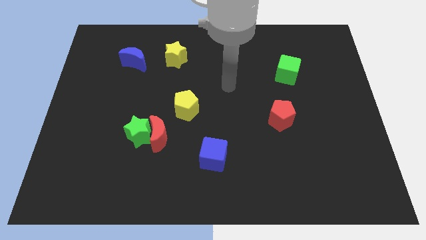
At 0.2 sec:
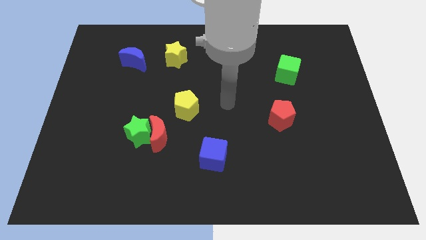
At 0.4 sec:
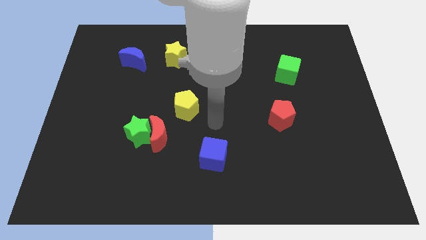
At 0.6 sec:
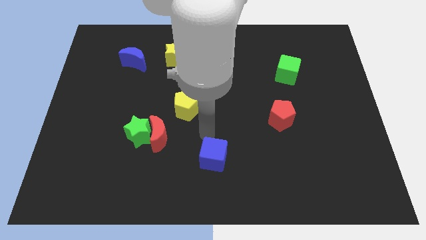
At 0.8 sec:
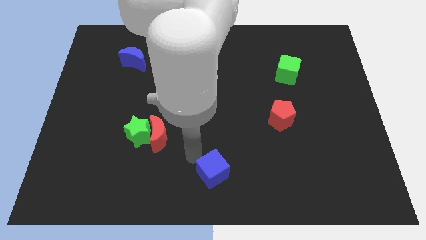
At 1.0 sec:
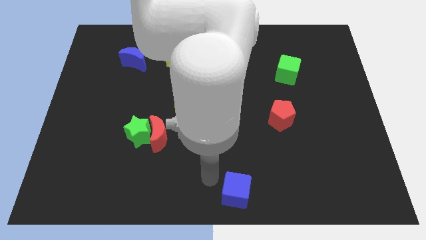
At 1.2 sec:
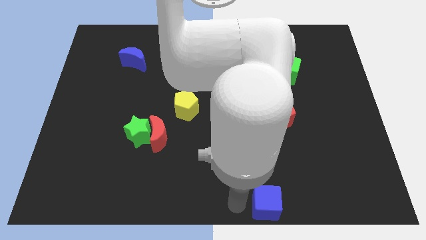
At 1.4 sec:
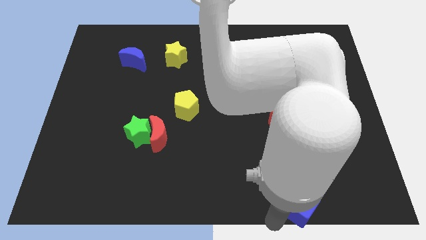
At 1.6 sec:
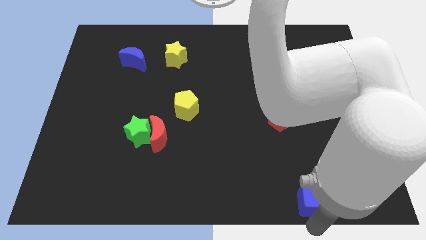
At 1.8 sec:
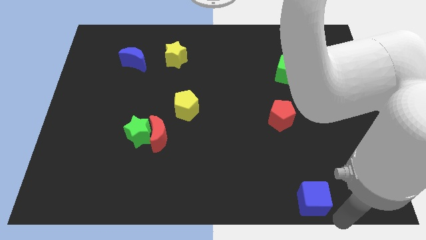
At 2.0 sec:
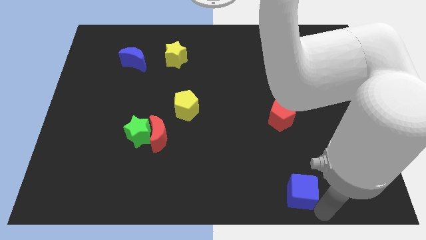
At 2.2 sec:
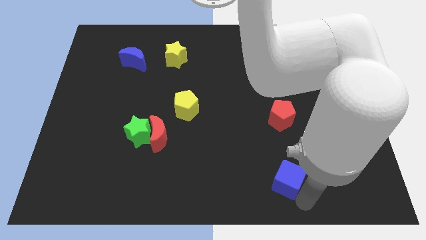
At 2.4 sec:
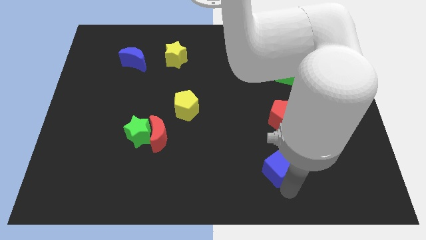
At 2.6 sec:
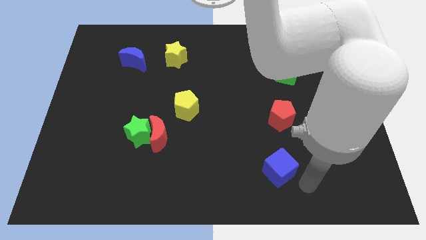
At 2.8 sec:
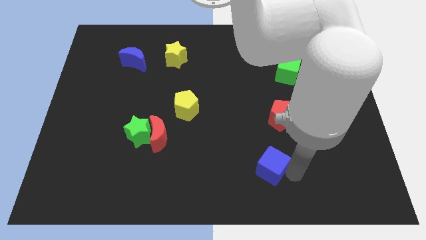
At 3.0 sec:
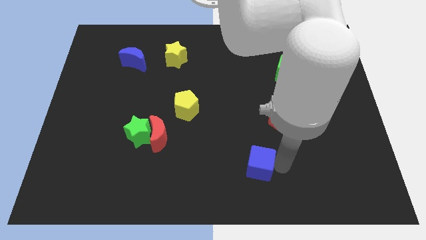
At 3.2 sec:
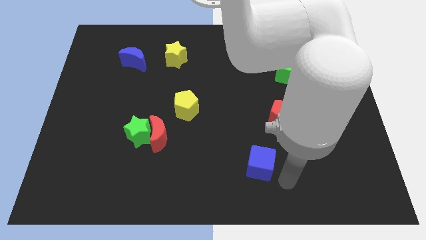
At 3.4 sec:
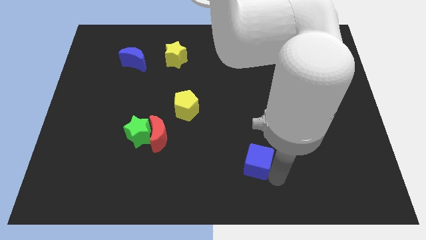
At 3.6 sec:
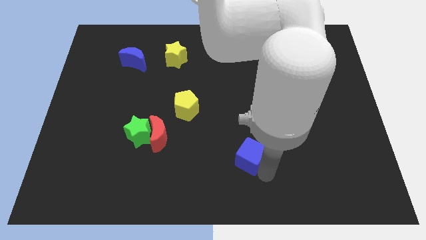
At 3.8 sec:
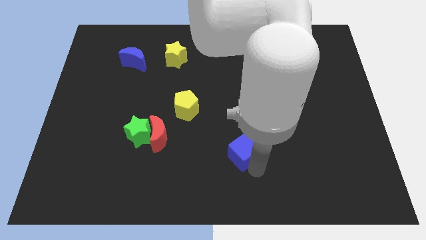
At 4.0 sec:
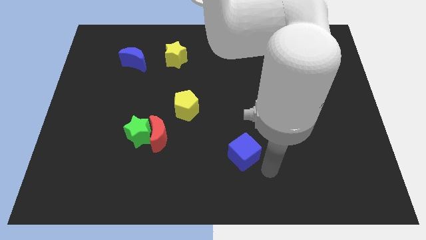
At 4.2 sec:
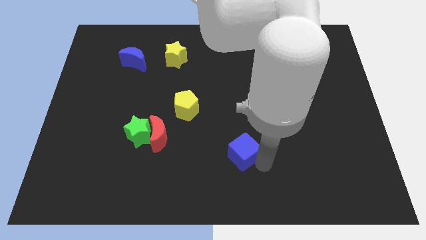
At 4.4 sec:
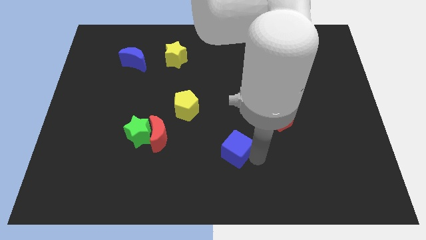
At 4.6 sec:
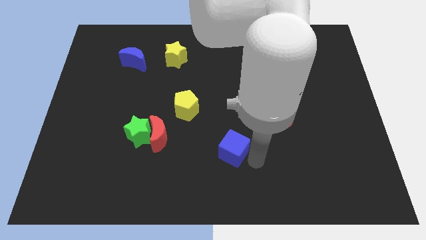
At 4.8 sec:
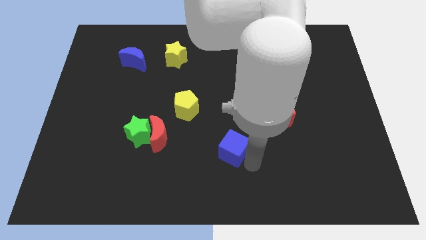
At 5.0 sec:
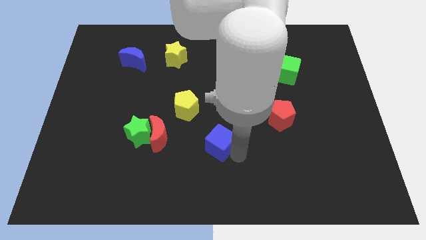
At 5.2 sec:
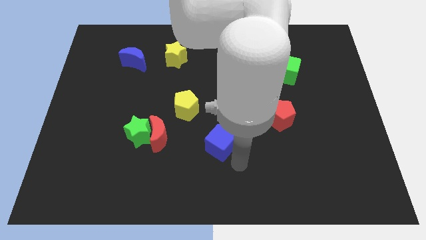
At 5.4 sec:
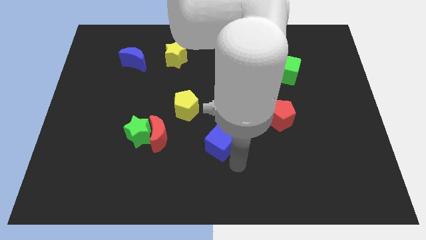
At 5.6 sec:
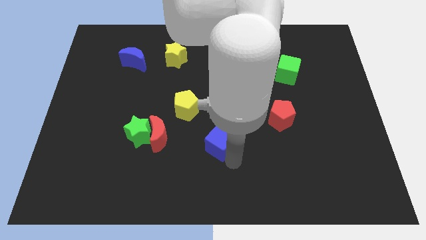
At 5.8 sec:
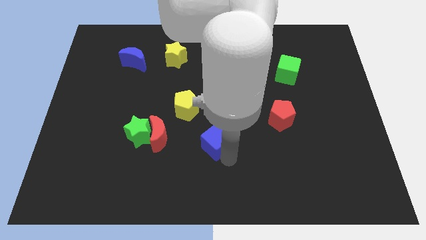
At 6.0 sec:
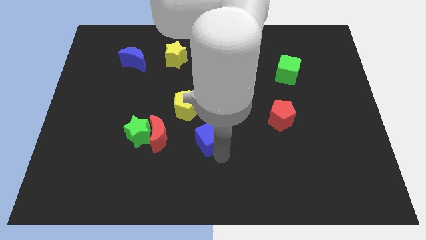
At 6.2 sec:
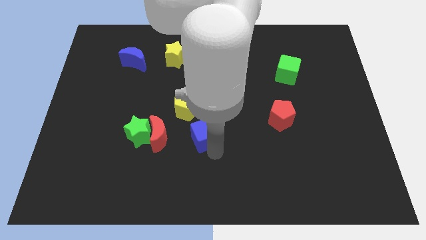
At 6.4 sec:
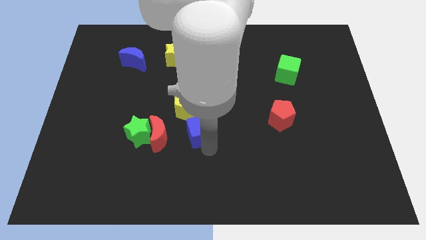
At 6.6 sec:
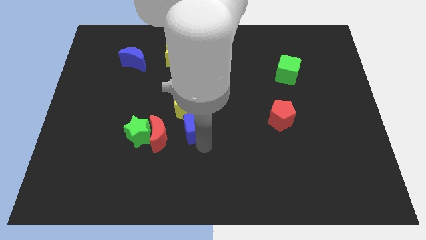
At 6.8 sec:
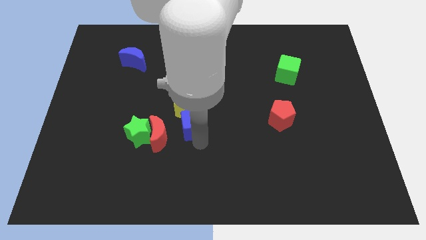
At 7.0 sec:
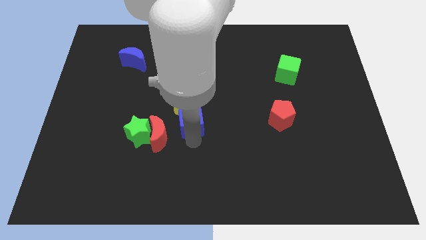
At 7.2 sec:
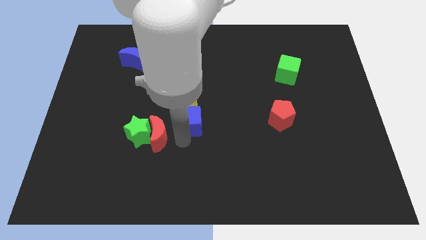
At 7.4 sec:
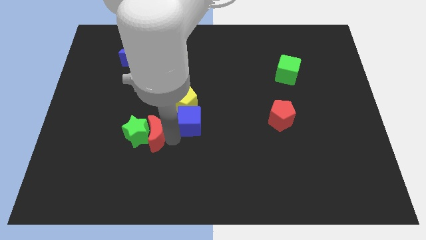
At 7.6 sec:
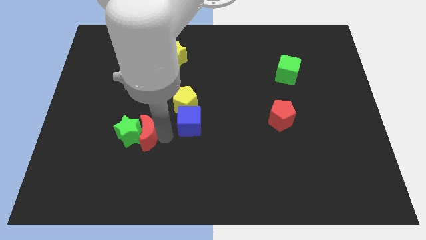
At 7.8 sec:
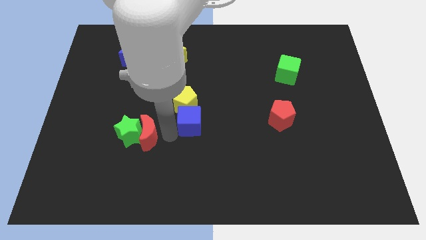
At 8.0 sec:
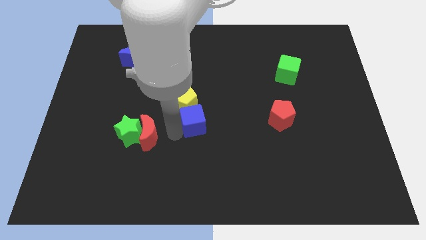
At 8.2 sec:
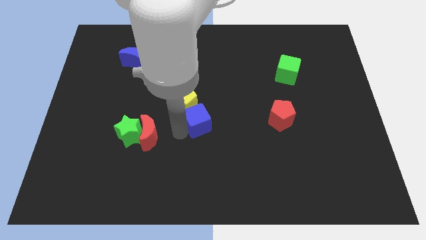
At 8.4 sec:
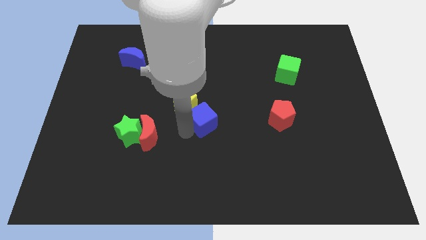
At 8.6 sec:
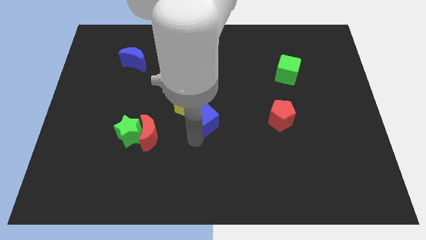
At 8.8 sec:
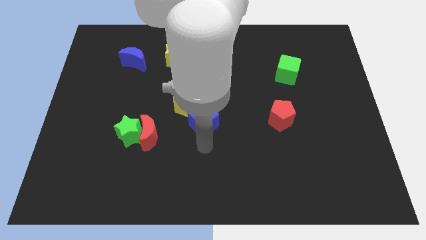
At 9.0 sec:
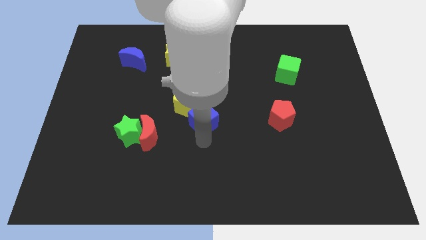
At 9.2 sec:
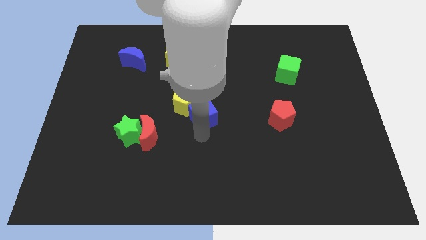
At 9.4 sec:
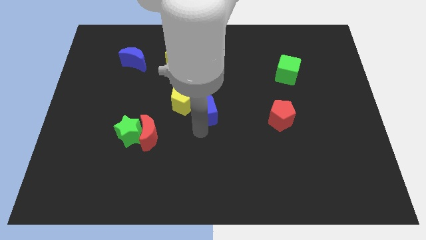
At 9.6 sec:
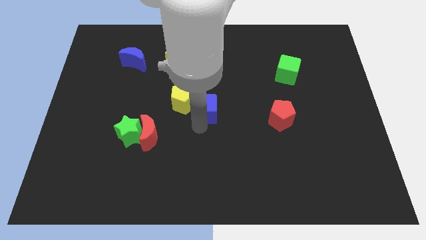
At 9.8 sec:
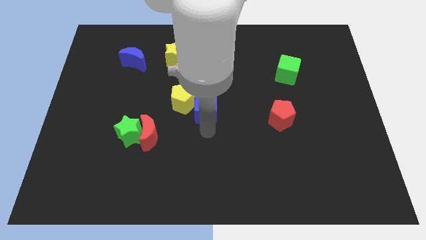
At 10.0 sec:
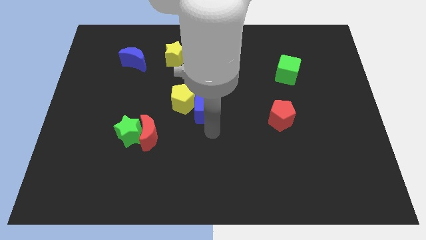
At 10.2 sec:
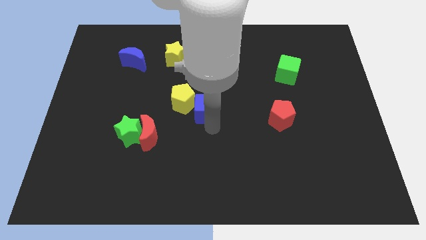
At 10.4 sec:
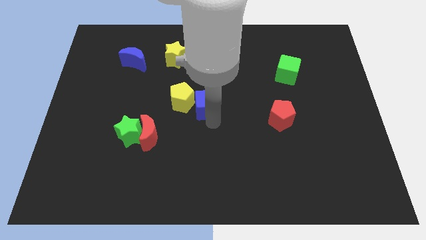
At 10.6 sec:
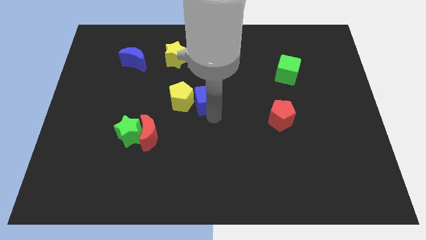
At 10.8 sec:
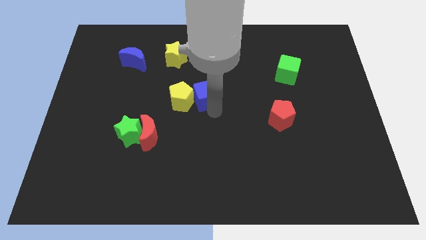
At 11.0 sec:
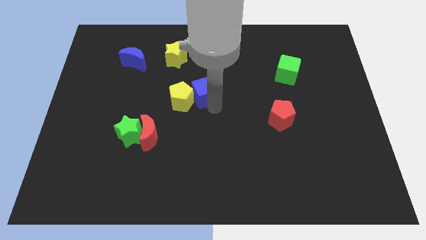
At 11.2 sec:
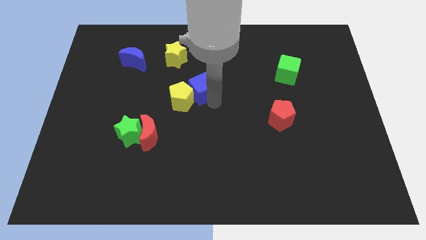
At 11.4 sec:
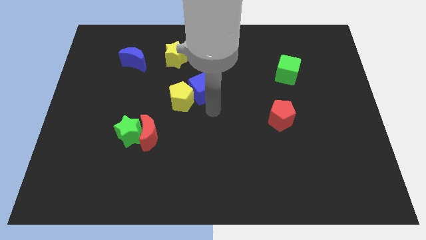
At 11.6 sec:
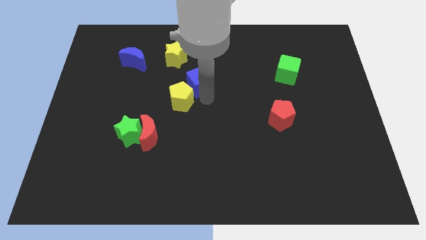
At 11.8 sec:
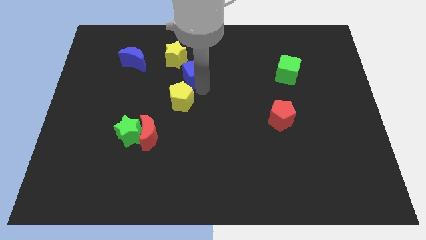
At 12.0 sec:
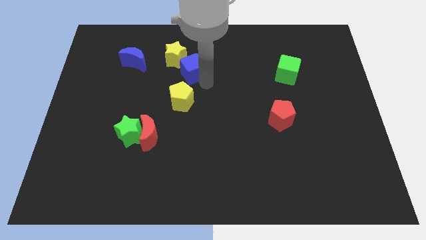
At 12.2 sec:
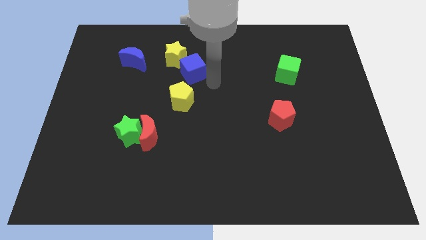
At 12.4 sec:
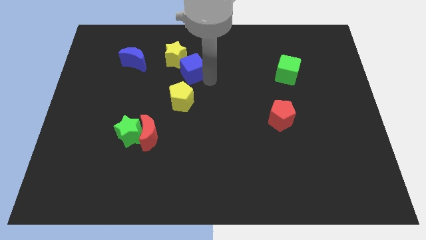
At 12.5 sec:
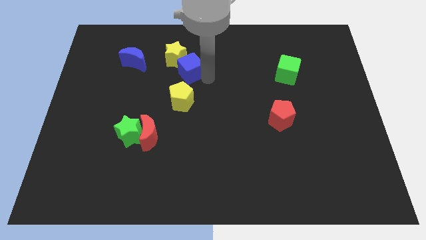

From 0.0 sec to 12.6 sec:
push the blue cube to the right of the blue moon

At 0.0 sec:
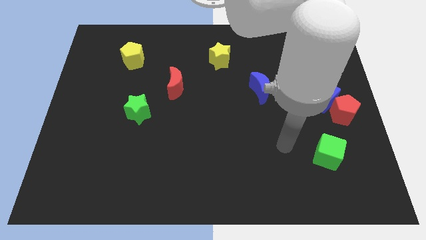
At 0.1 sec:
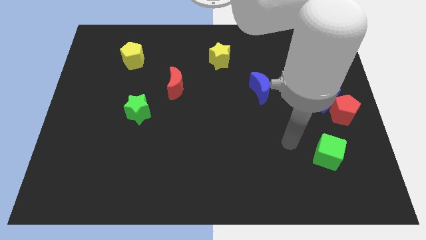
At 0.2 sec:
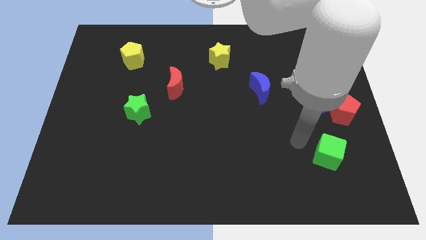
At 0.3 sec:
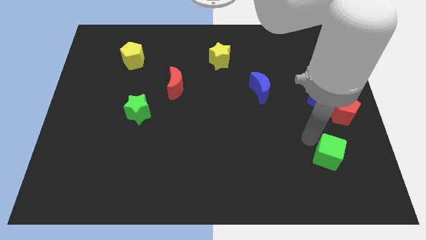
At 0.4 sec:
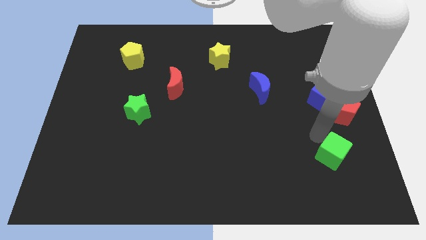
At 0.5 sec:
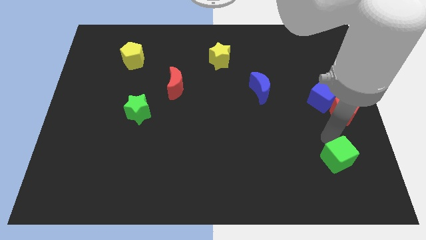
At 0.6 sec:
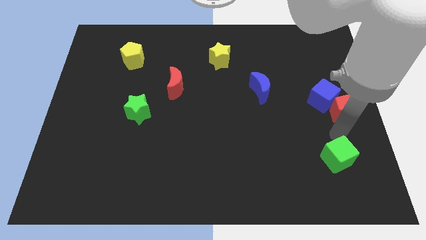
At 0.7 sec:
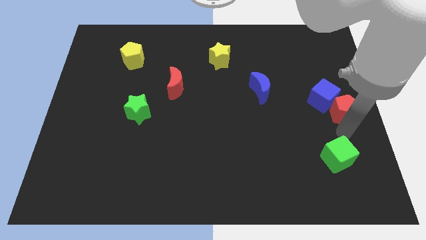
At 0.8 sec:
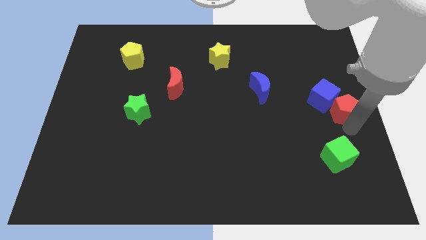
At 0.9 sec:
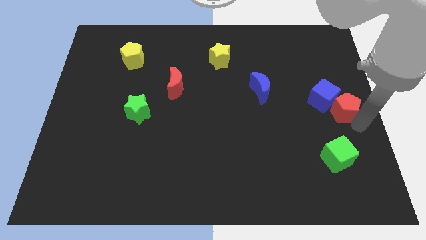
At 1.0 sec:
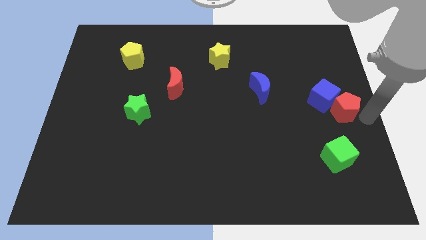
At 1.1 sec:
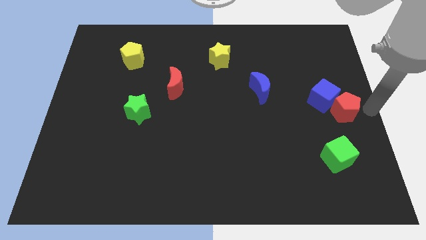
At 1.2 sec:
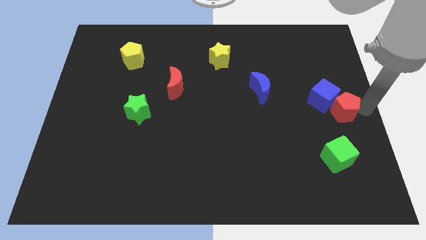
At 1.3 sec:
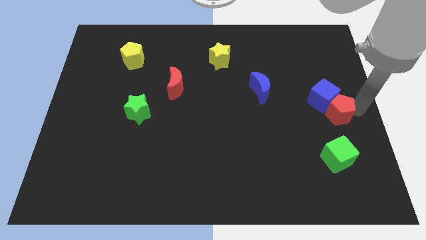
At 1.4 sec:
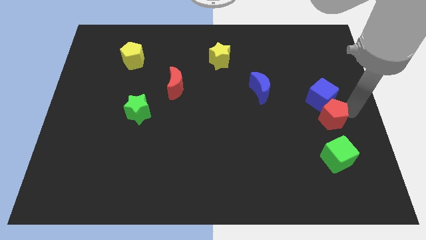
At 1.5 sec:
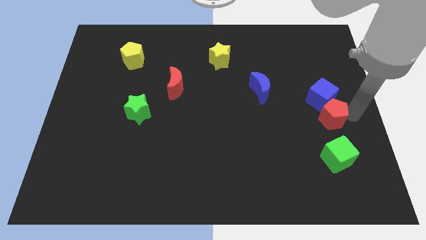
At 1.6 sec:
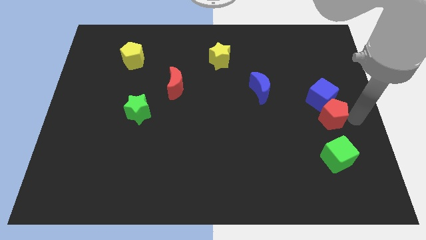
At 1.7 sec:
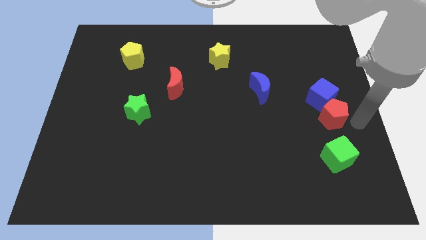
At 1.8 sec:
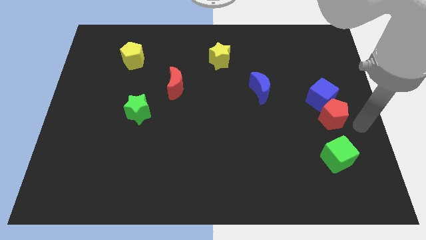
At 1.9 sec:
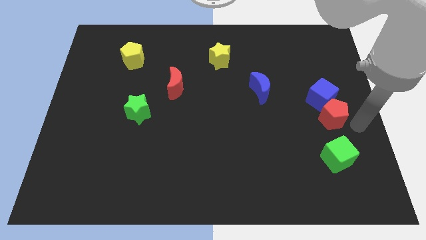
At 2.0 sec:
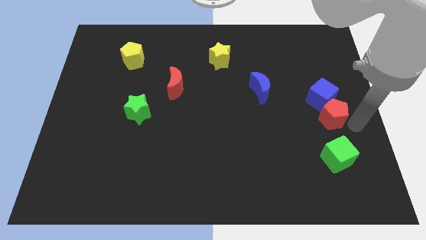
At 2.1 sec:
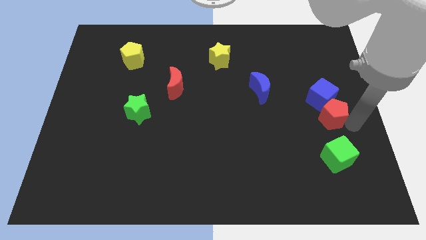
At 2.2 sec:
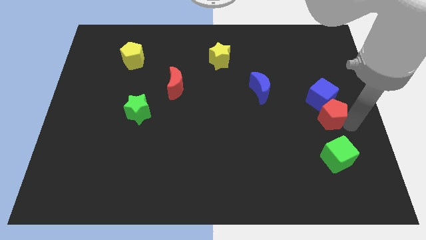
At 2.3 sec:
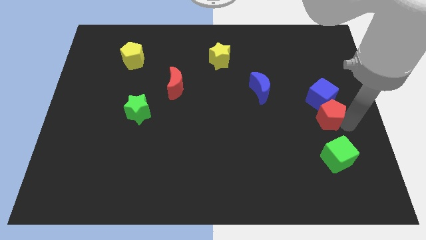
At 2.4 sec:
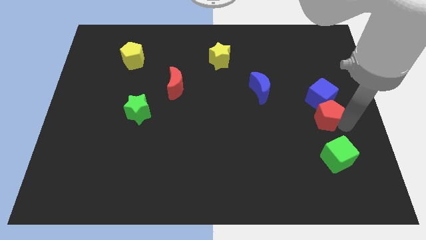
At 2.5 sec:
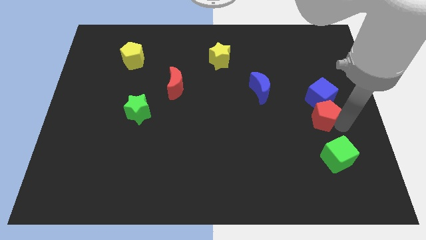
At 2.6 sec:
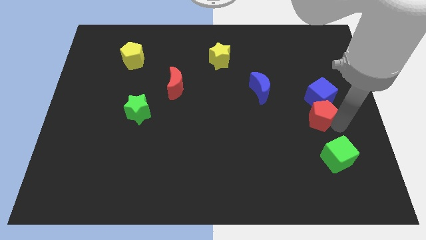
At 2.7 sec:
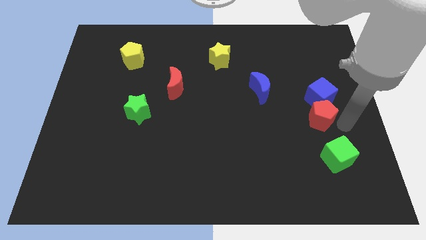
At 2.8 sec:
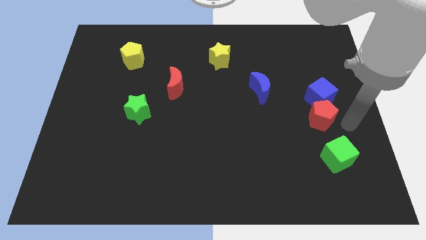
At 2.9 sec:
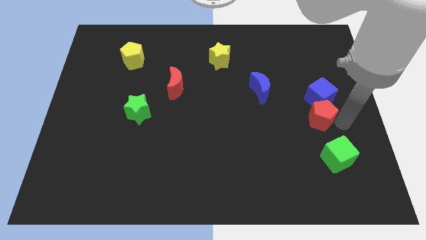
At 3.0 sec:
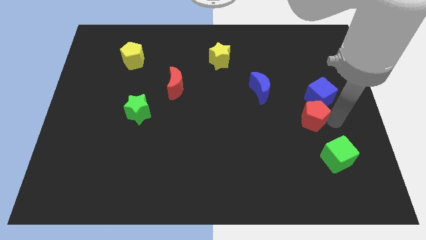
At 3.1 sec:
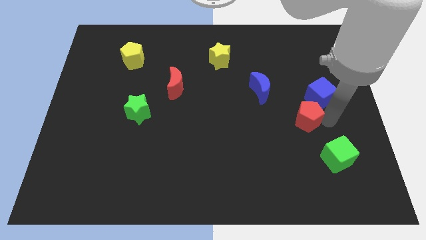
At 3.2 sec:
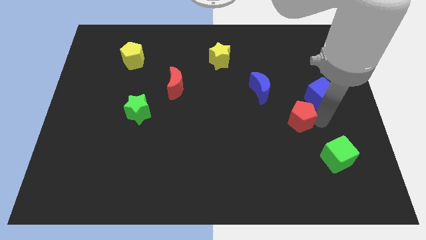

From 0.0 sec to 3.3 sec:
put the red pentagon diagonally down and to the right of the blue moon
